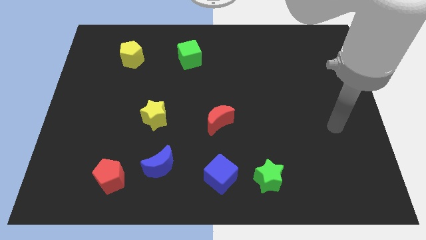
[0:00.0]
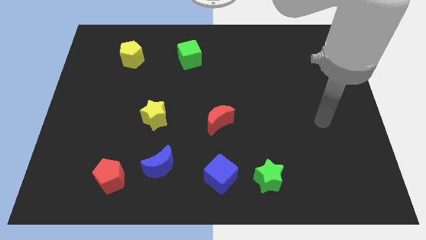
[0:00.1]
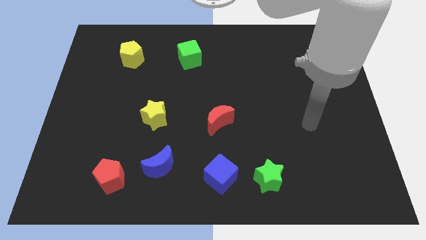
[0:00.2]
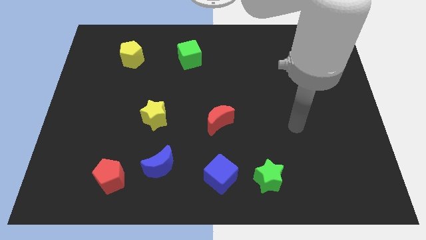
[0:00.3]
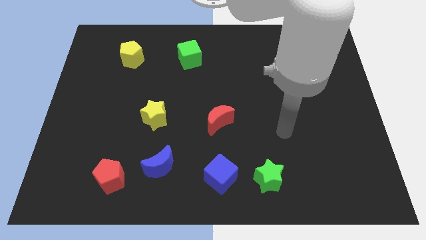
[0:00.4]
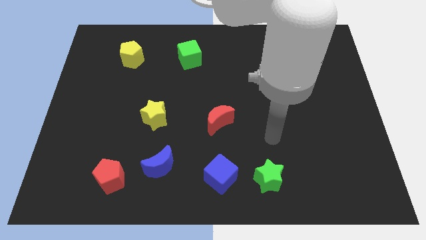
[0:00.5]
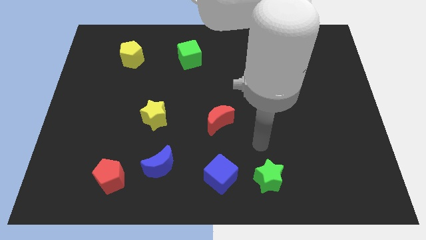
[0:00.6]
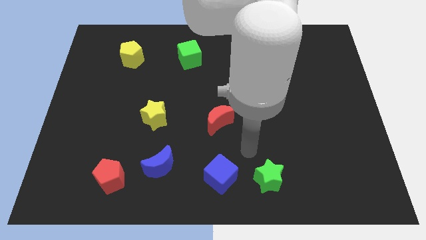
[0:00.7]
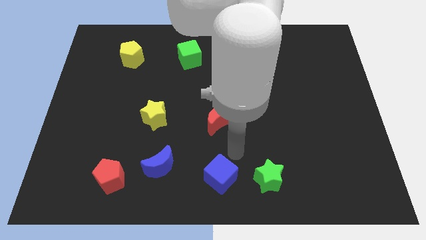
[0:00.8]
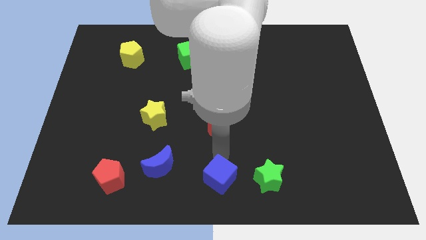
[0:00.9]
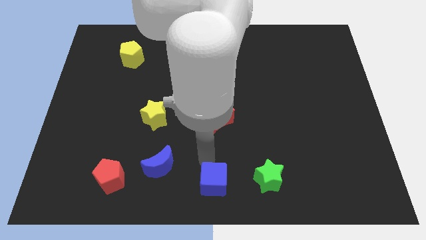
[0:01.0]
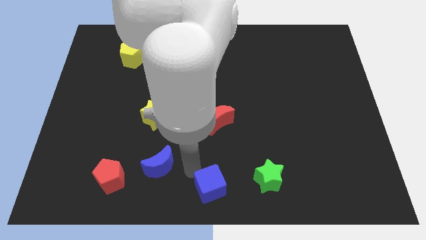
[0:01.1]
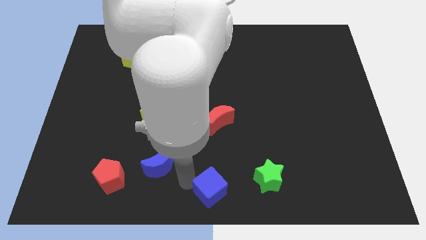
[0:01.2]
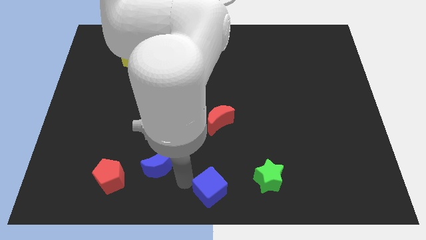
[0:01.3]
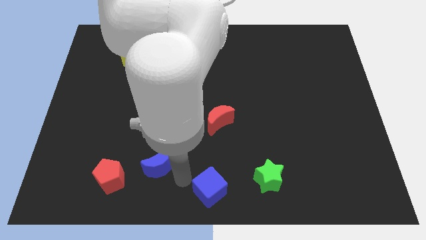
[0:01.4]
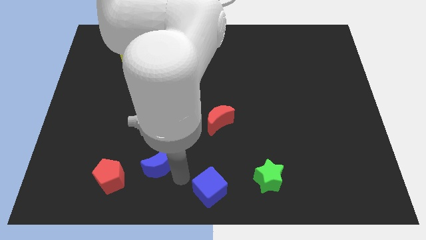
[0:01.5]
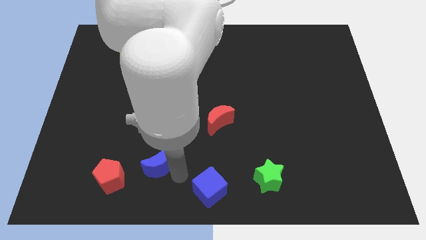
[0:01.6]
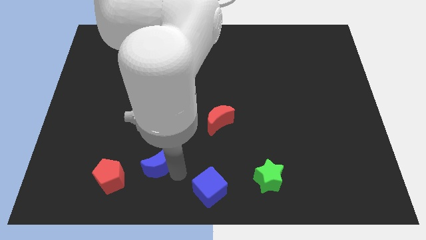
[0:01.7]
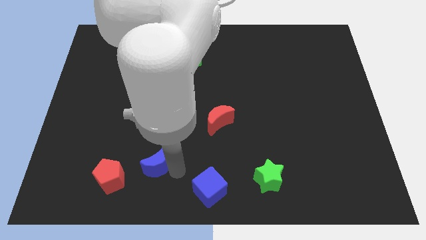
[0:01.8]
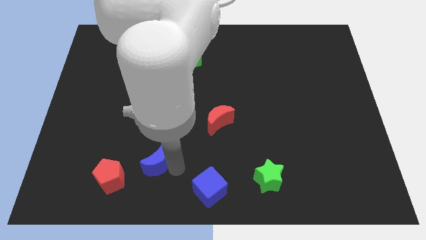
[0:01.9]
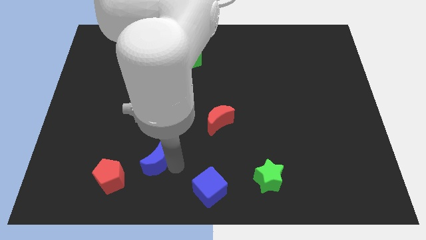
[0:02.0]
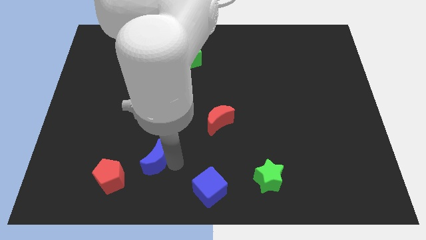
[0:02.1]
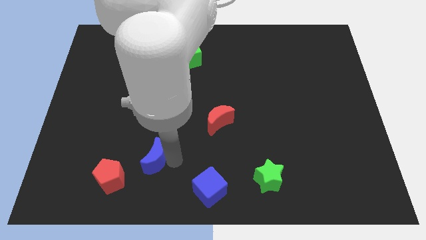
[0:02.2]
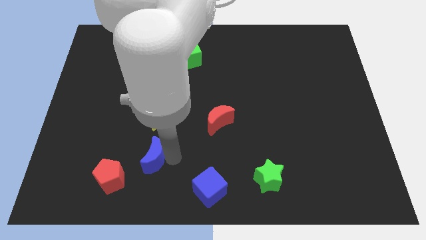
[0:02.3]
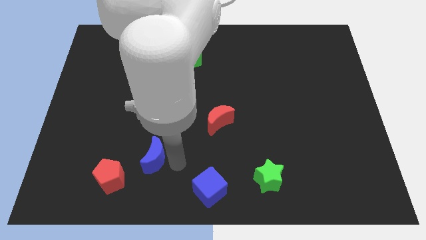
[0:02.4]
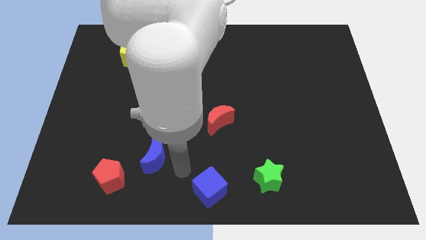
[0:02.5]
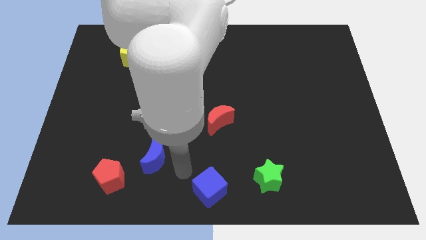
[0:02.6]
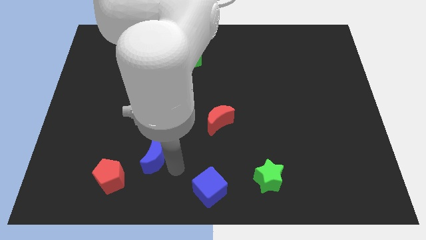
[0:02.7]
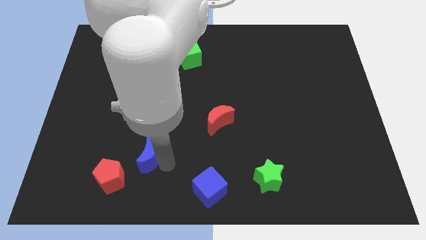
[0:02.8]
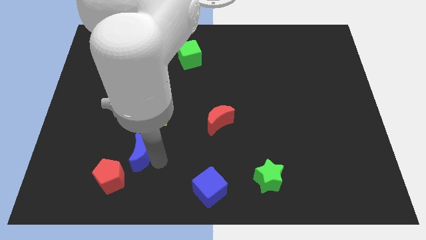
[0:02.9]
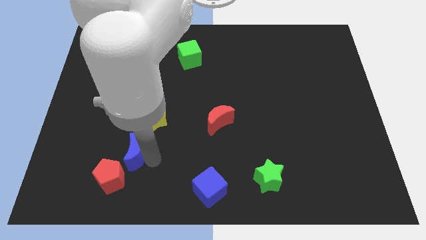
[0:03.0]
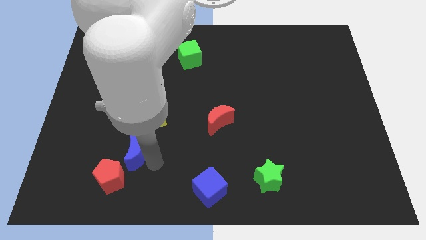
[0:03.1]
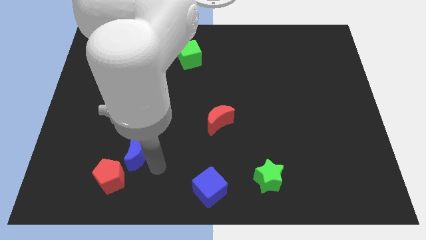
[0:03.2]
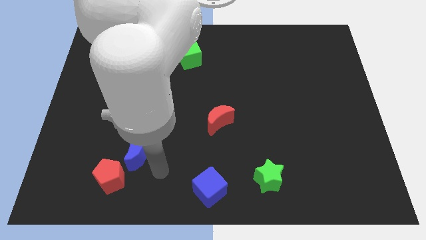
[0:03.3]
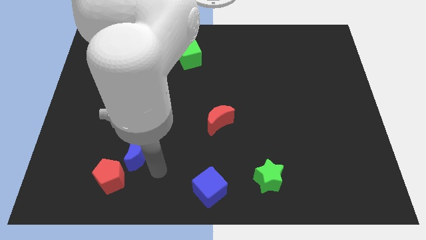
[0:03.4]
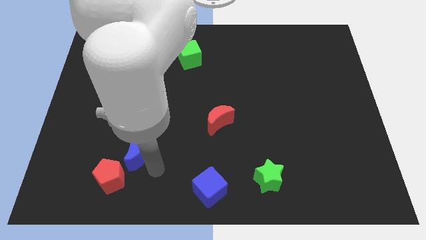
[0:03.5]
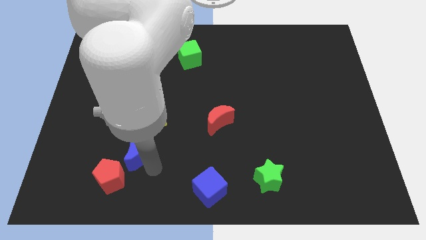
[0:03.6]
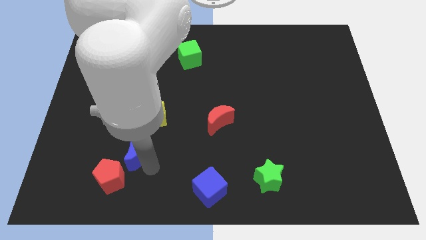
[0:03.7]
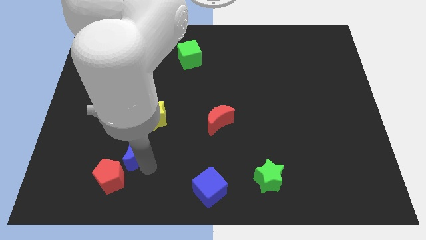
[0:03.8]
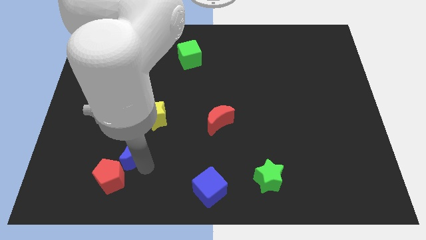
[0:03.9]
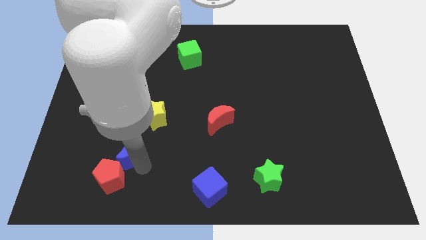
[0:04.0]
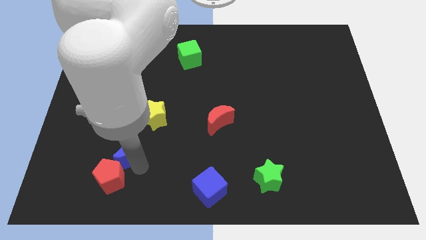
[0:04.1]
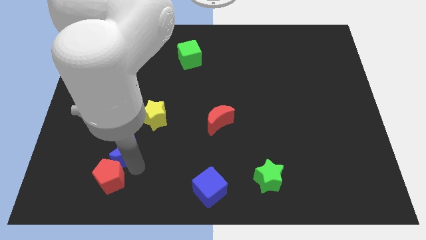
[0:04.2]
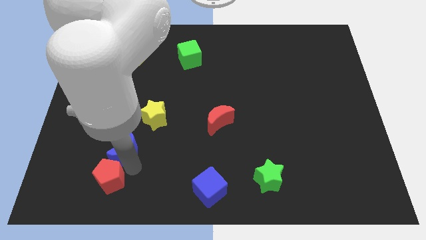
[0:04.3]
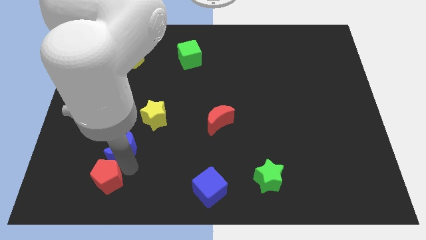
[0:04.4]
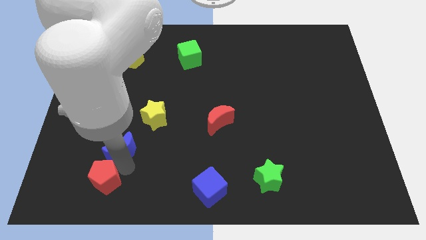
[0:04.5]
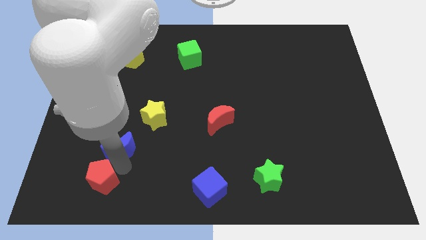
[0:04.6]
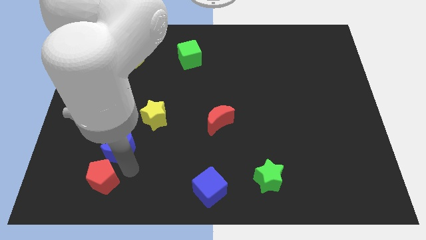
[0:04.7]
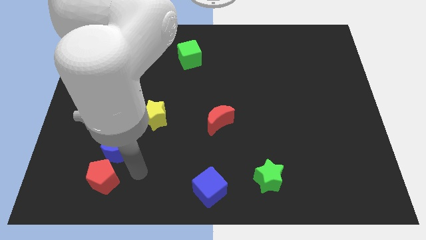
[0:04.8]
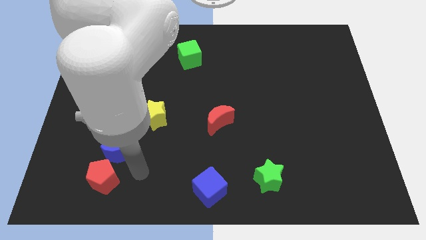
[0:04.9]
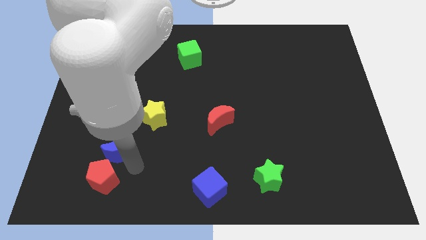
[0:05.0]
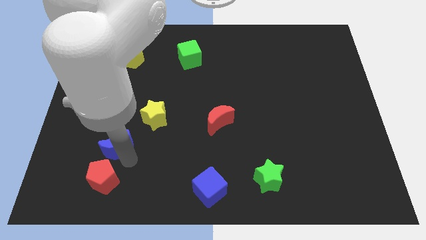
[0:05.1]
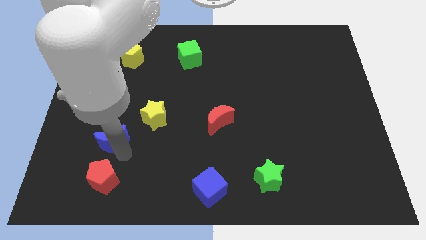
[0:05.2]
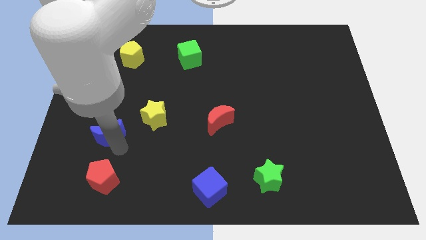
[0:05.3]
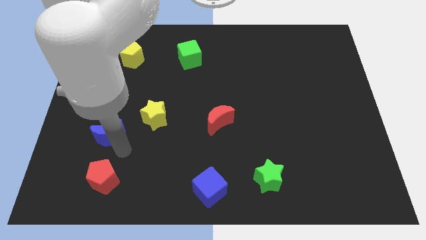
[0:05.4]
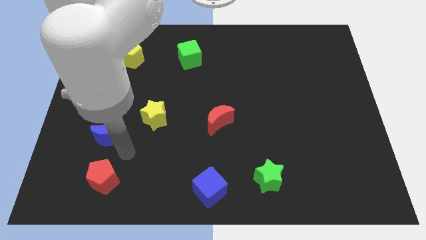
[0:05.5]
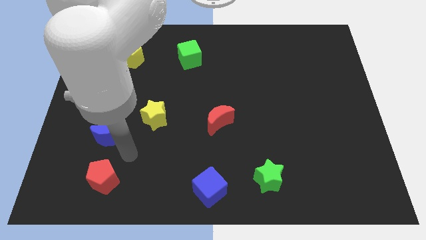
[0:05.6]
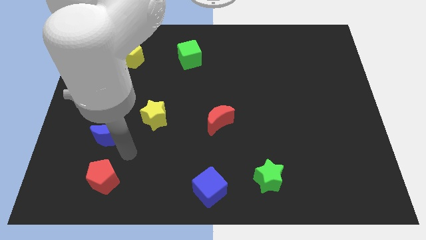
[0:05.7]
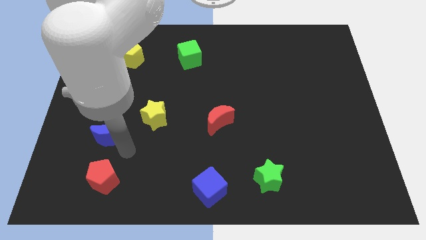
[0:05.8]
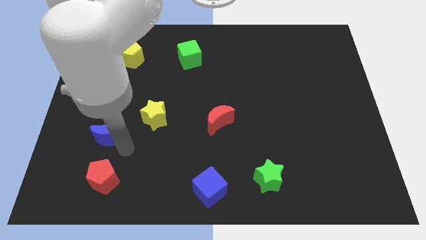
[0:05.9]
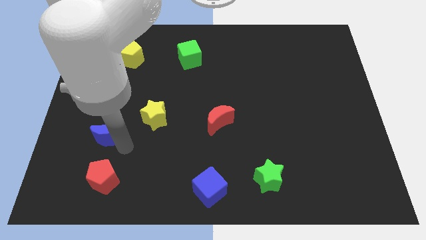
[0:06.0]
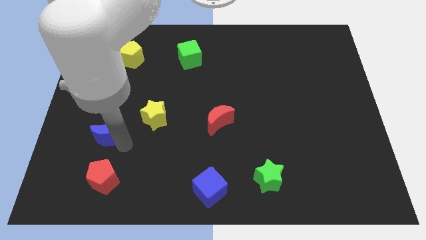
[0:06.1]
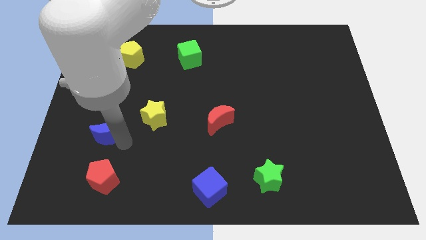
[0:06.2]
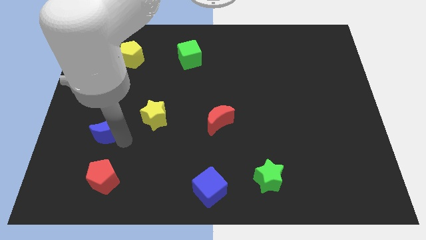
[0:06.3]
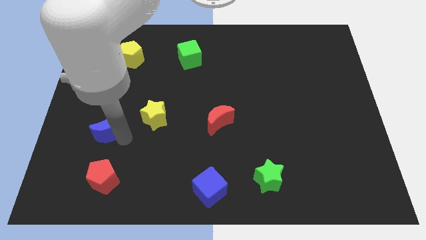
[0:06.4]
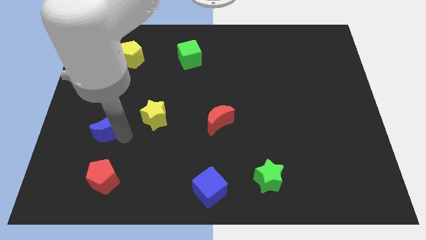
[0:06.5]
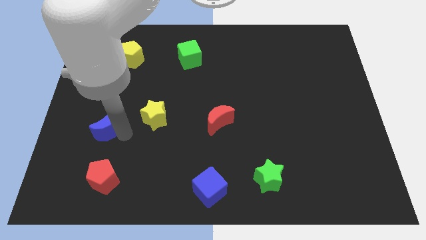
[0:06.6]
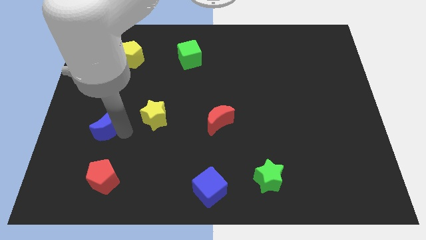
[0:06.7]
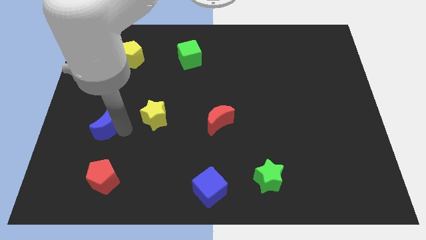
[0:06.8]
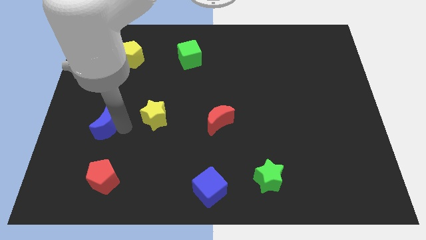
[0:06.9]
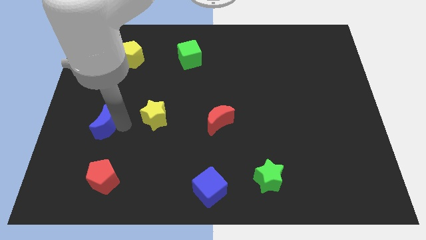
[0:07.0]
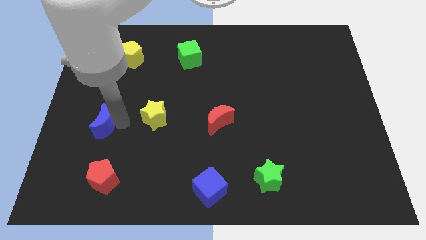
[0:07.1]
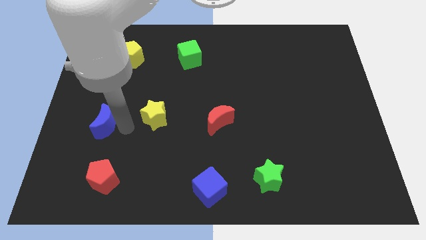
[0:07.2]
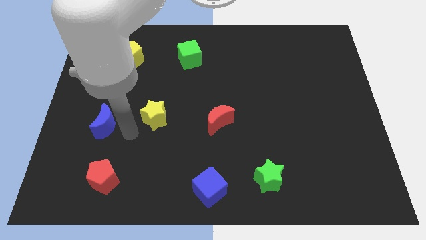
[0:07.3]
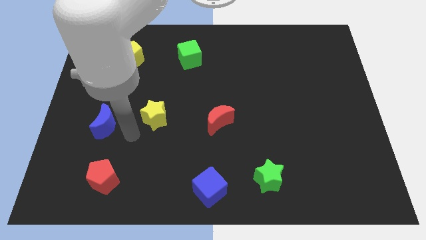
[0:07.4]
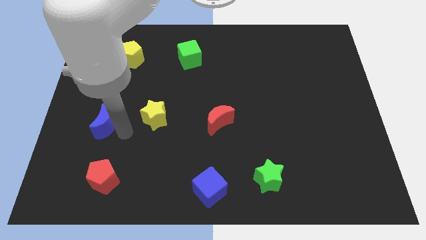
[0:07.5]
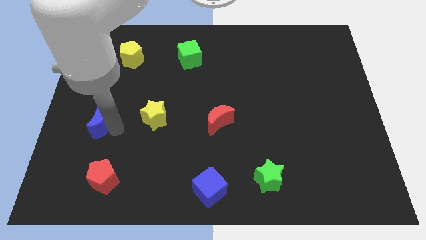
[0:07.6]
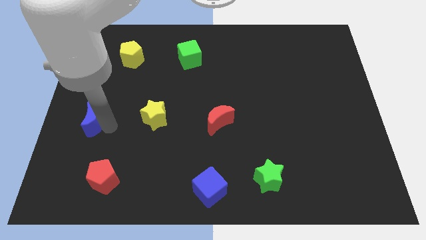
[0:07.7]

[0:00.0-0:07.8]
push the blue moon to the left side
